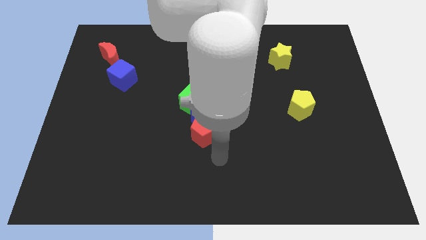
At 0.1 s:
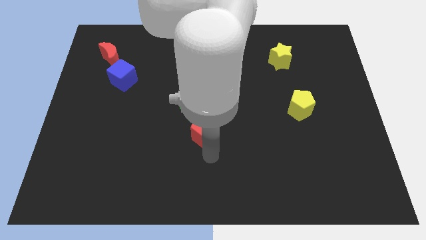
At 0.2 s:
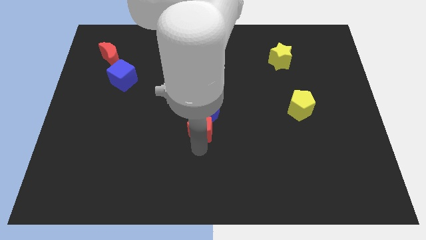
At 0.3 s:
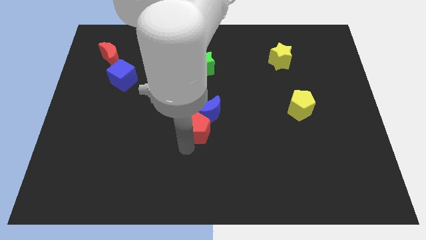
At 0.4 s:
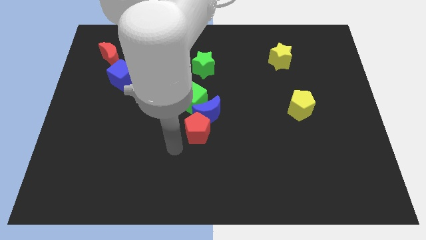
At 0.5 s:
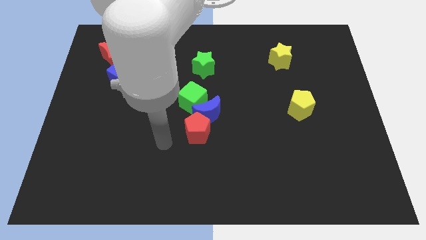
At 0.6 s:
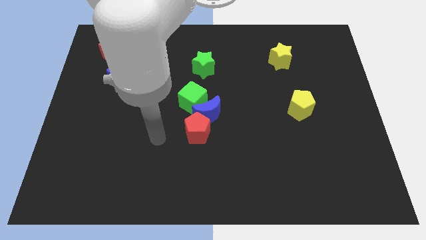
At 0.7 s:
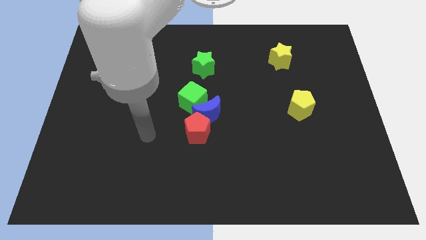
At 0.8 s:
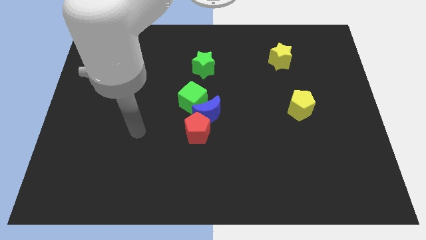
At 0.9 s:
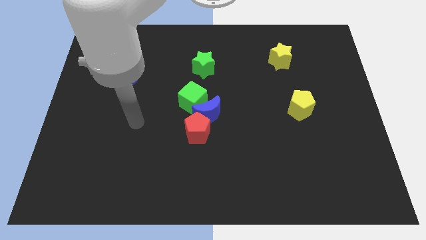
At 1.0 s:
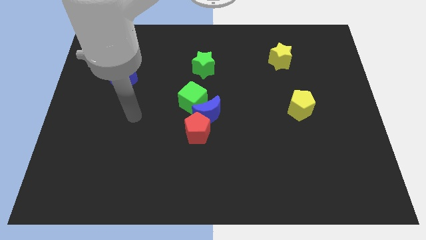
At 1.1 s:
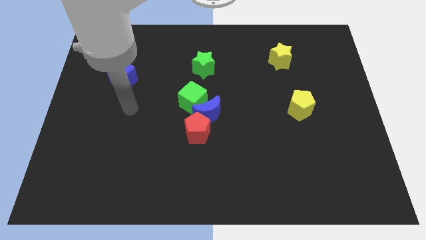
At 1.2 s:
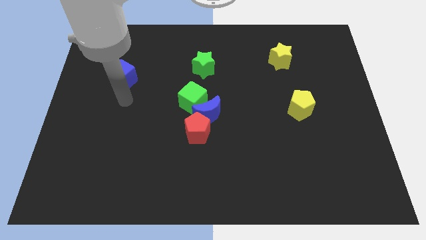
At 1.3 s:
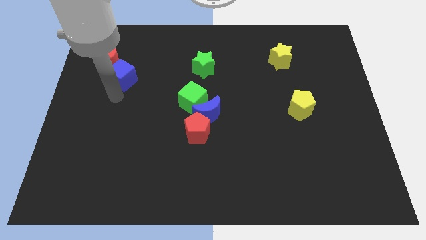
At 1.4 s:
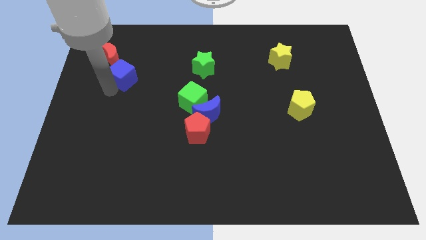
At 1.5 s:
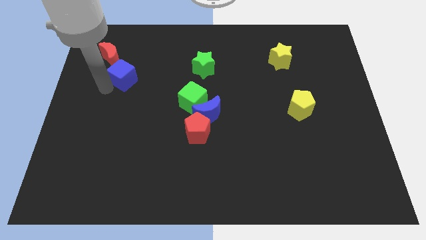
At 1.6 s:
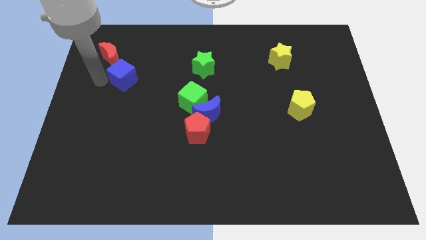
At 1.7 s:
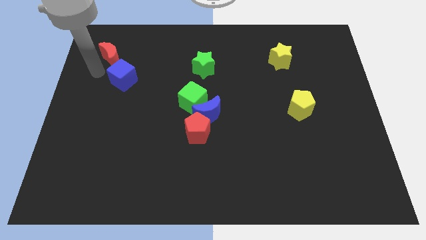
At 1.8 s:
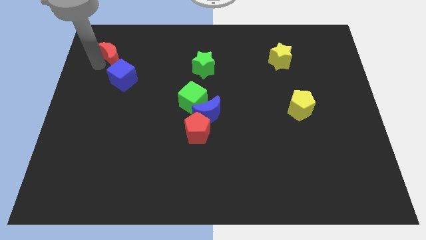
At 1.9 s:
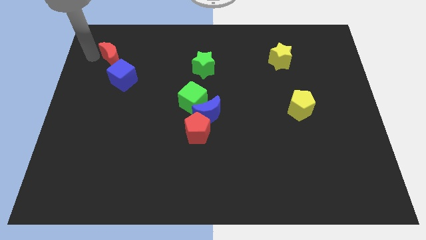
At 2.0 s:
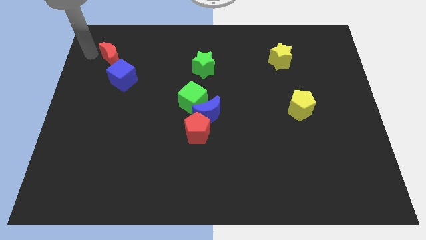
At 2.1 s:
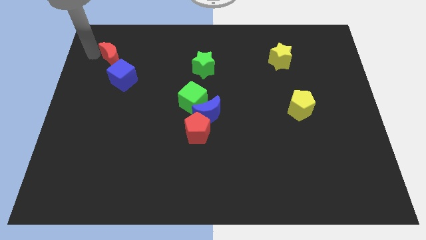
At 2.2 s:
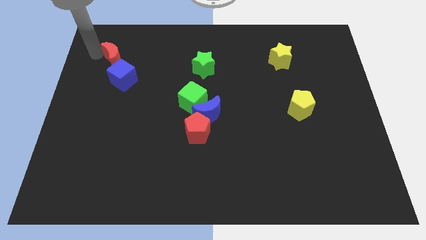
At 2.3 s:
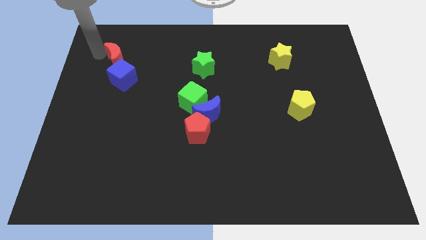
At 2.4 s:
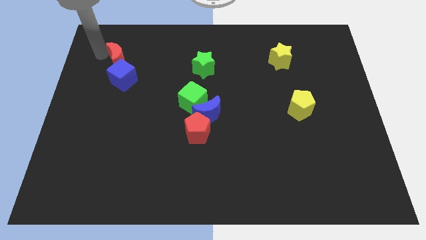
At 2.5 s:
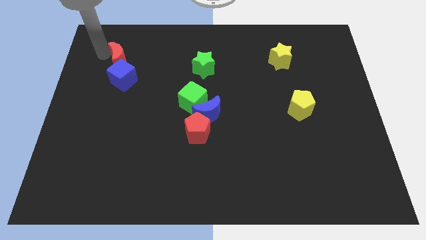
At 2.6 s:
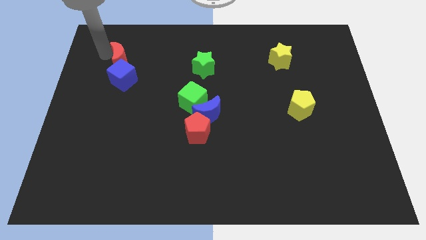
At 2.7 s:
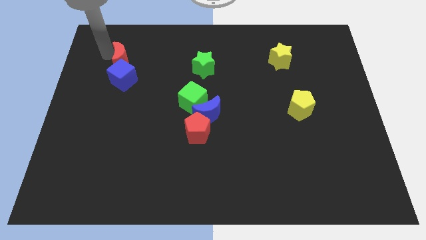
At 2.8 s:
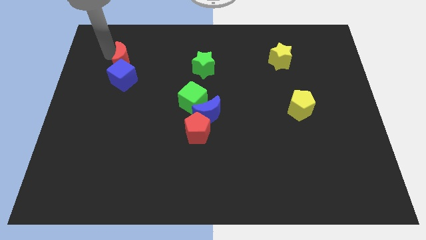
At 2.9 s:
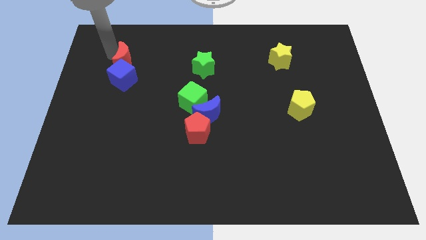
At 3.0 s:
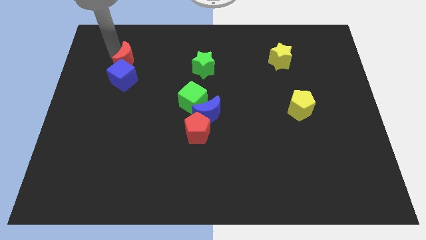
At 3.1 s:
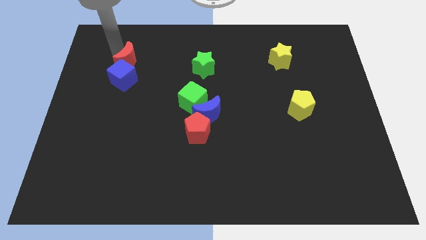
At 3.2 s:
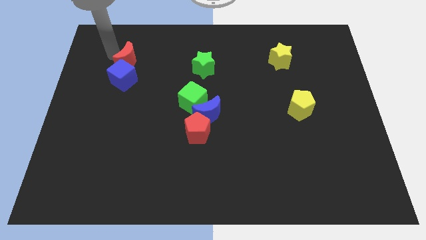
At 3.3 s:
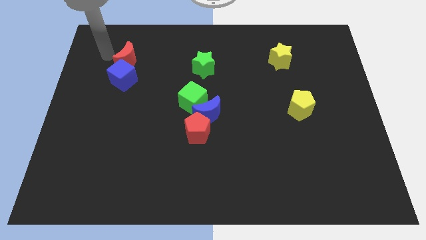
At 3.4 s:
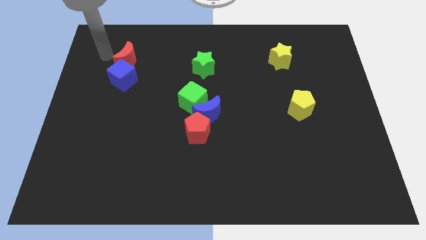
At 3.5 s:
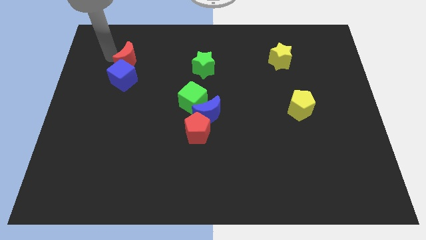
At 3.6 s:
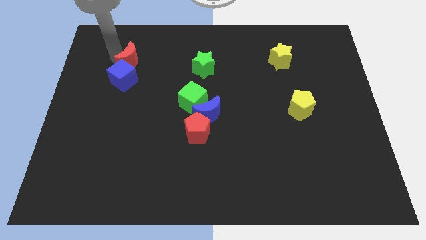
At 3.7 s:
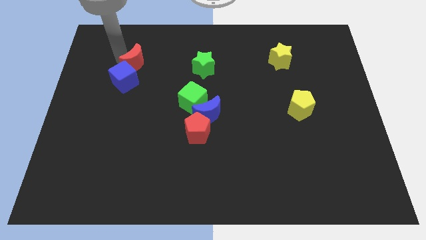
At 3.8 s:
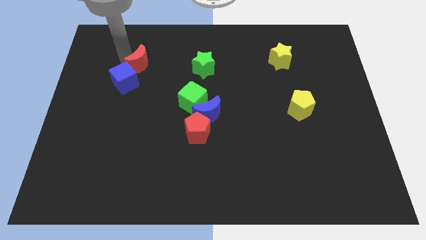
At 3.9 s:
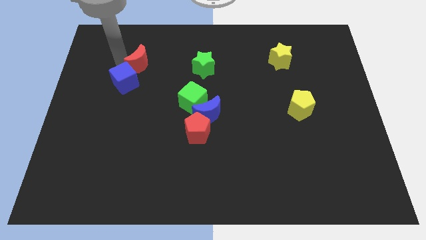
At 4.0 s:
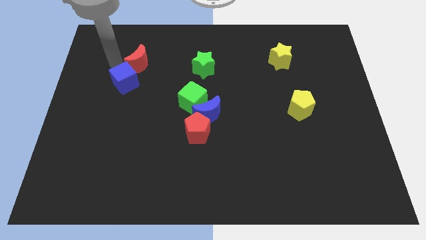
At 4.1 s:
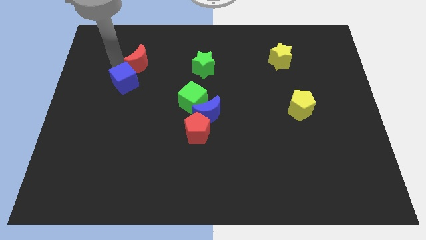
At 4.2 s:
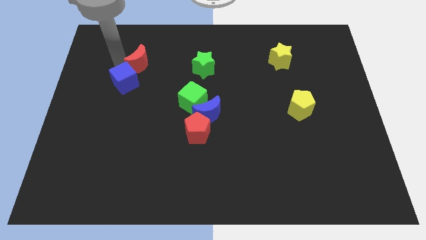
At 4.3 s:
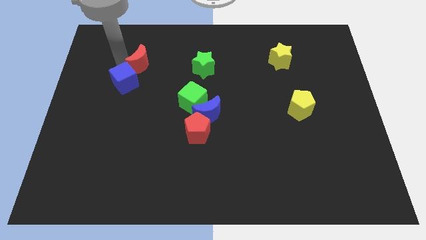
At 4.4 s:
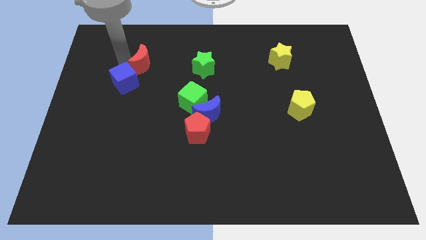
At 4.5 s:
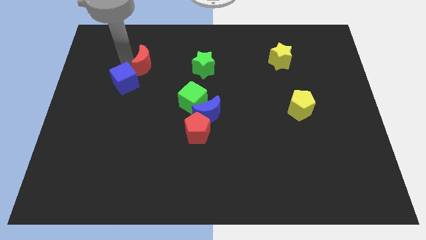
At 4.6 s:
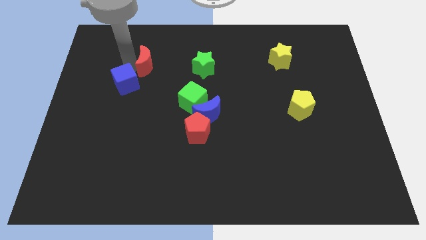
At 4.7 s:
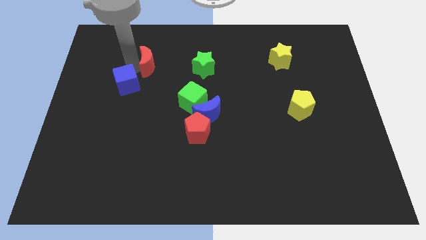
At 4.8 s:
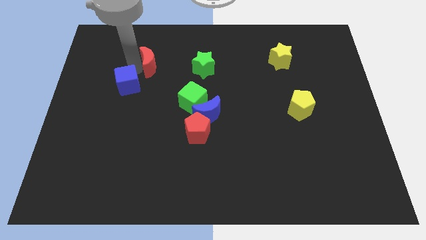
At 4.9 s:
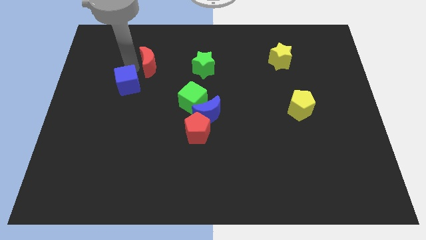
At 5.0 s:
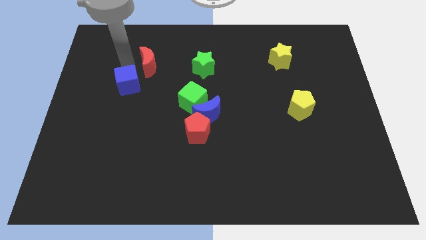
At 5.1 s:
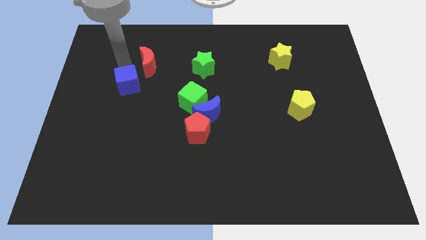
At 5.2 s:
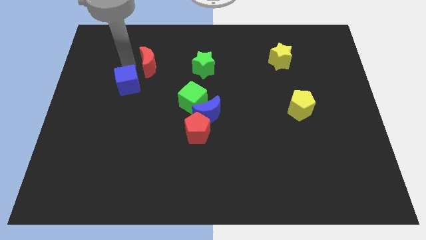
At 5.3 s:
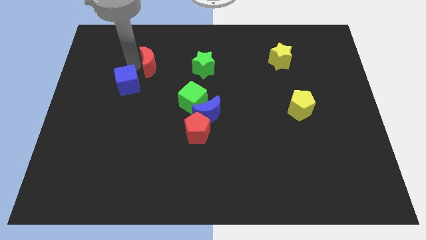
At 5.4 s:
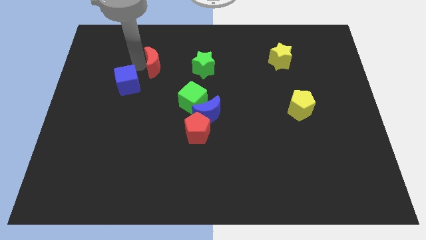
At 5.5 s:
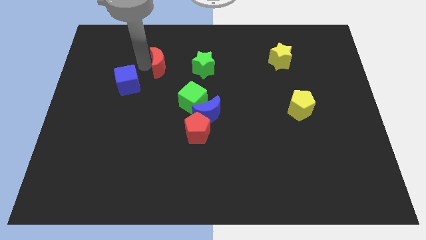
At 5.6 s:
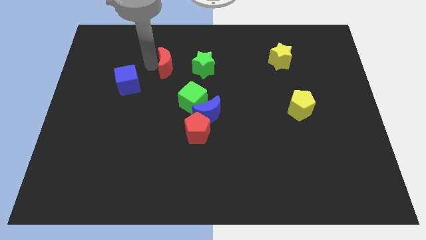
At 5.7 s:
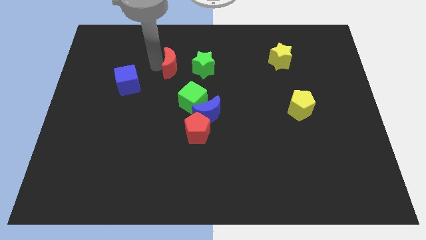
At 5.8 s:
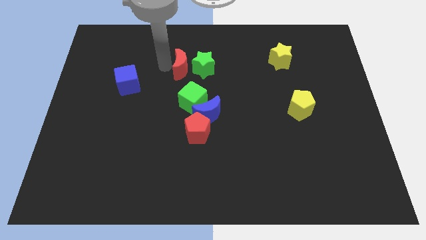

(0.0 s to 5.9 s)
push the red moon next to the green star
